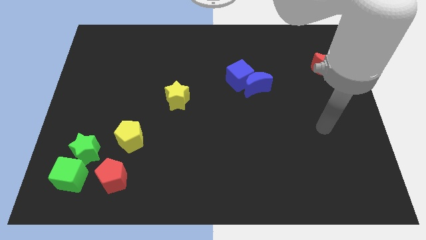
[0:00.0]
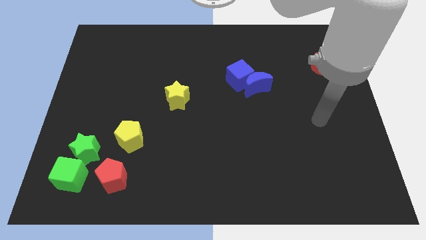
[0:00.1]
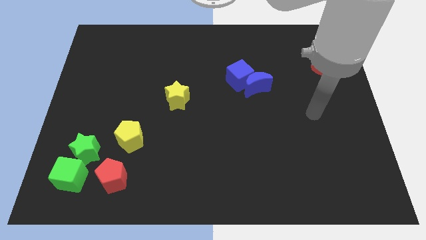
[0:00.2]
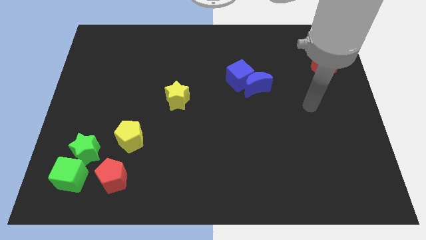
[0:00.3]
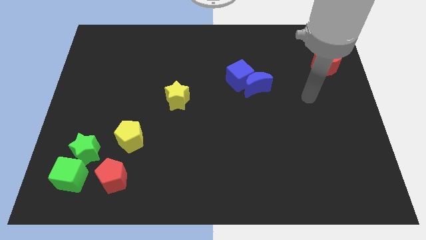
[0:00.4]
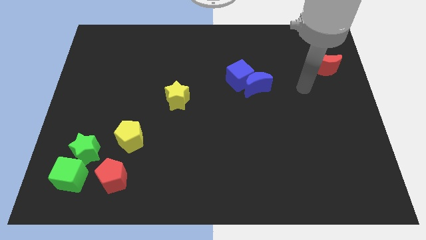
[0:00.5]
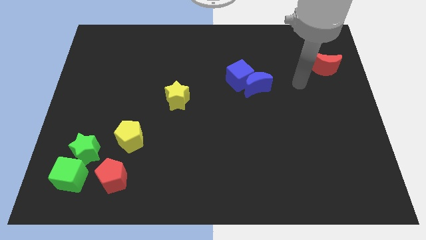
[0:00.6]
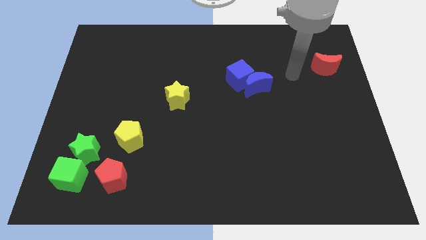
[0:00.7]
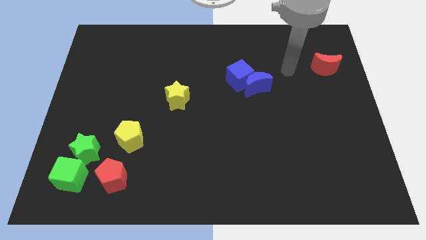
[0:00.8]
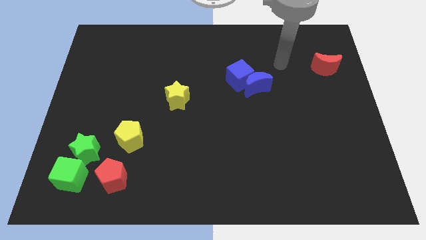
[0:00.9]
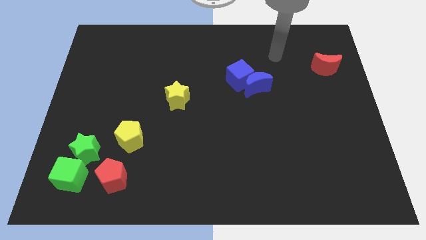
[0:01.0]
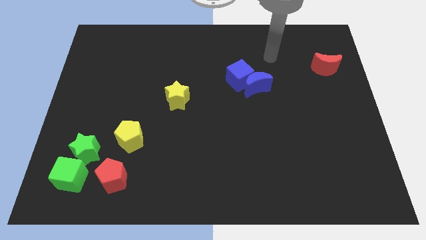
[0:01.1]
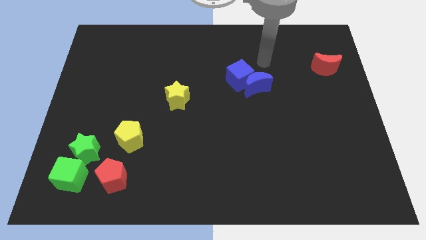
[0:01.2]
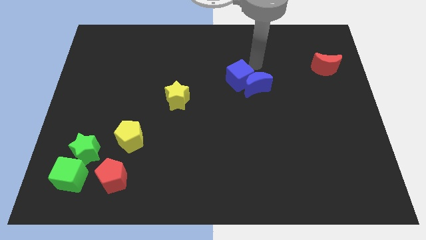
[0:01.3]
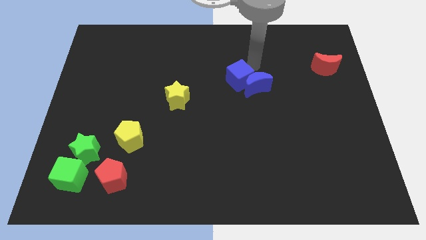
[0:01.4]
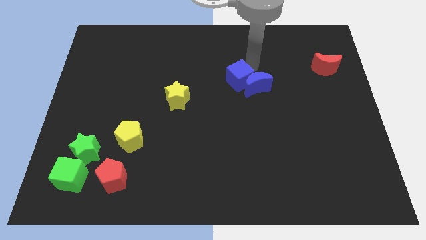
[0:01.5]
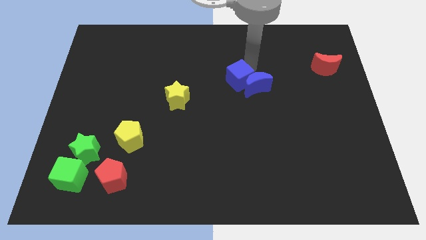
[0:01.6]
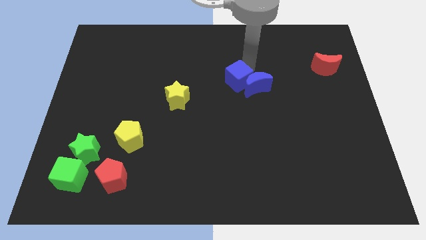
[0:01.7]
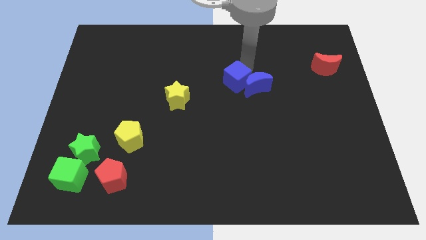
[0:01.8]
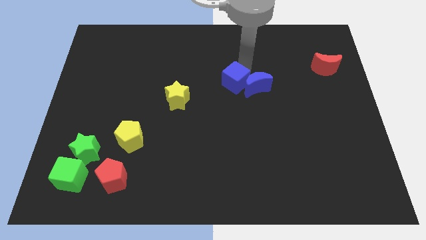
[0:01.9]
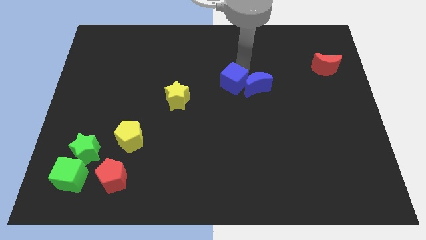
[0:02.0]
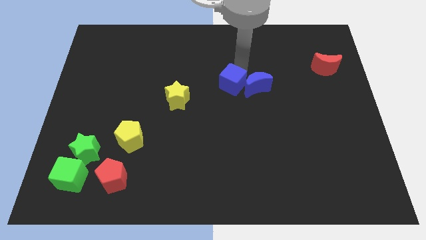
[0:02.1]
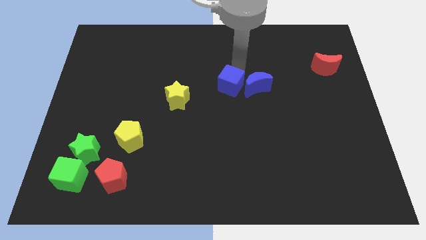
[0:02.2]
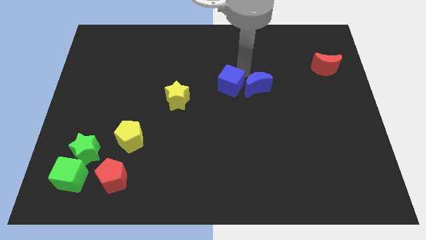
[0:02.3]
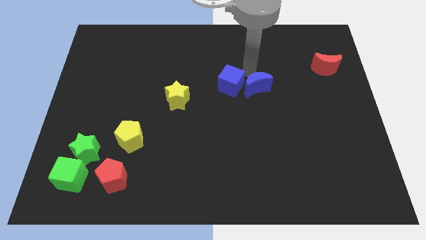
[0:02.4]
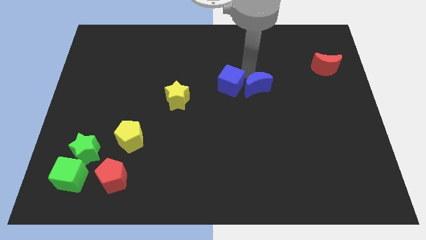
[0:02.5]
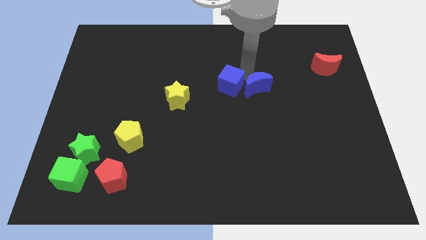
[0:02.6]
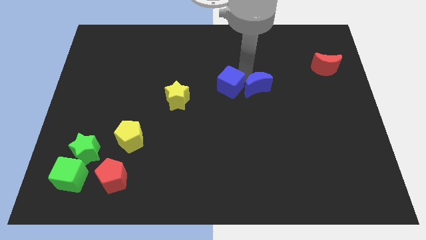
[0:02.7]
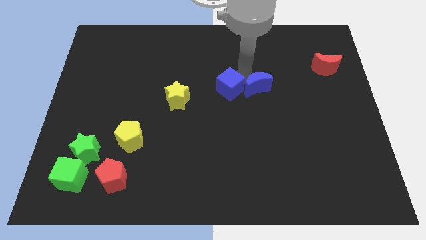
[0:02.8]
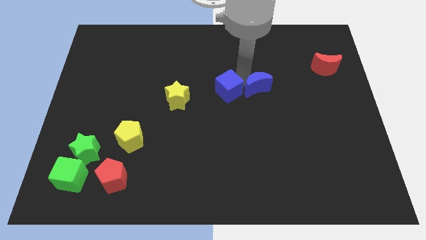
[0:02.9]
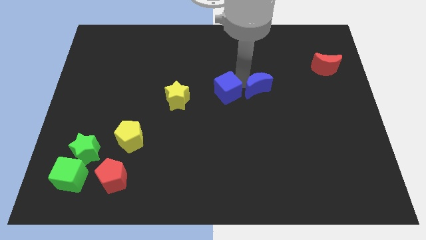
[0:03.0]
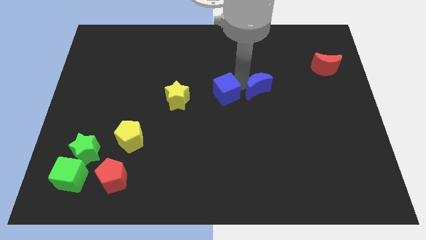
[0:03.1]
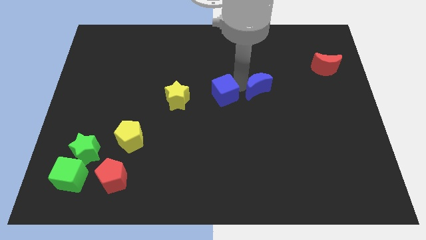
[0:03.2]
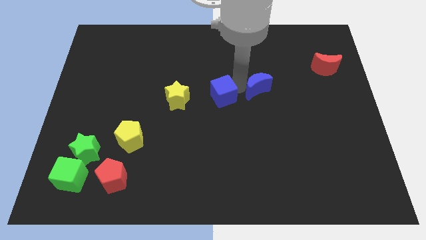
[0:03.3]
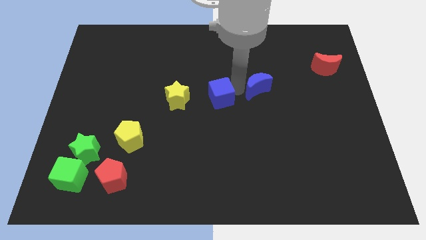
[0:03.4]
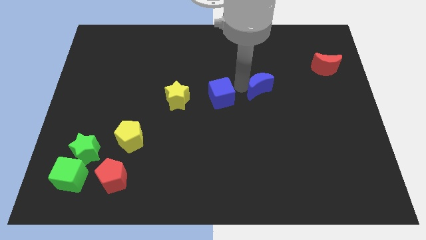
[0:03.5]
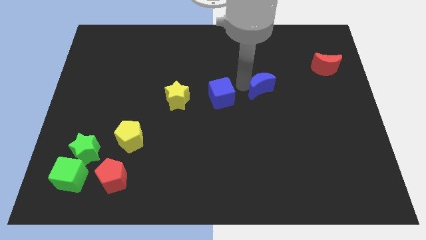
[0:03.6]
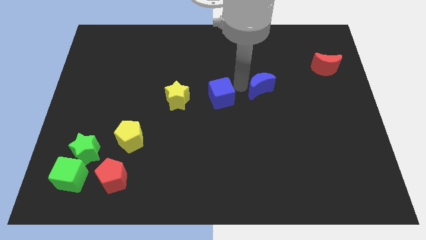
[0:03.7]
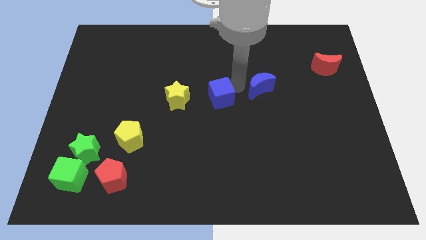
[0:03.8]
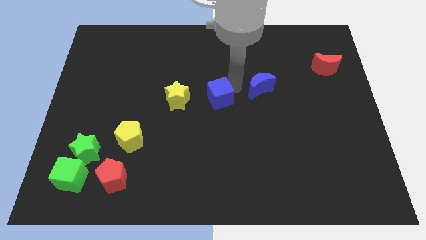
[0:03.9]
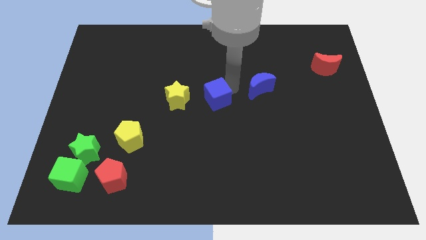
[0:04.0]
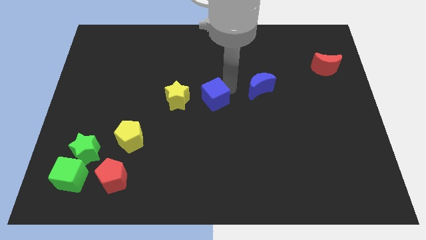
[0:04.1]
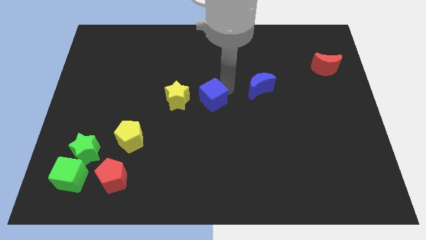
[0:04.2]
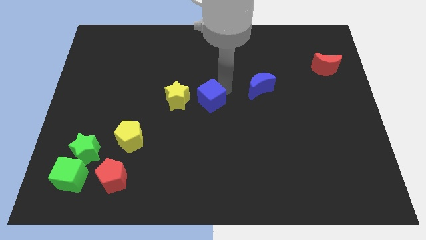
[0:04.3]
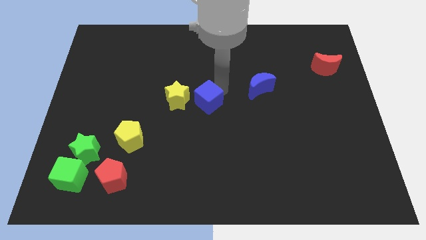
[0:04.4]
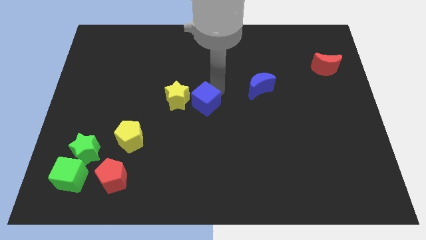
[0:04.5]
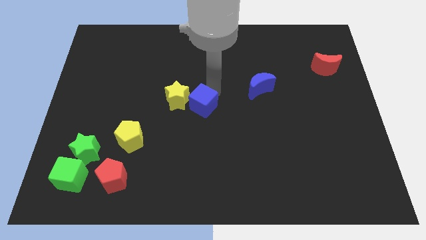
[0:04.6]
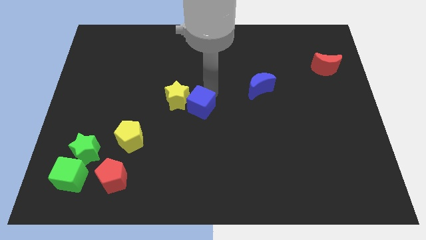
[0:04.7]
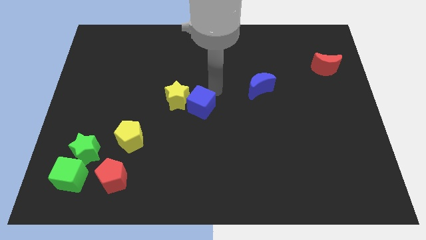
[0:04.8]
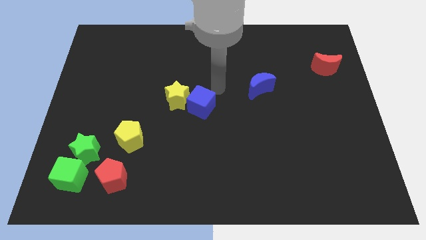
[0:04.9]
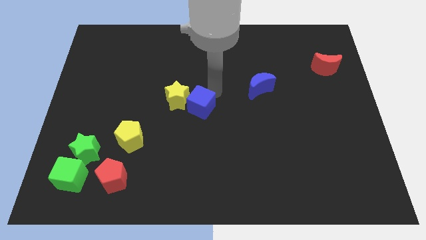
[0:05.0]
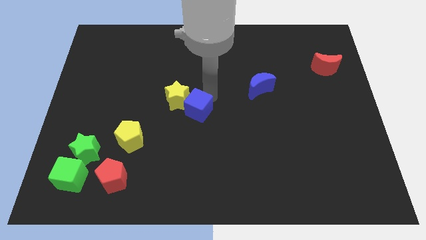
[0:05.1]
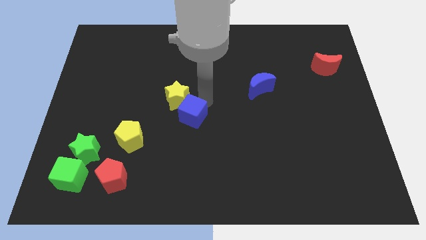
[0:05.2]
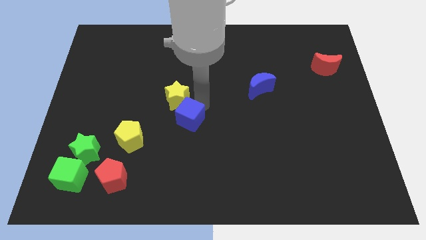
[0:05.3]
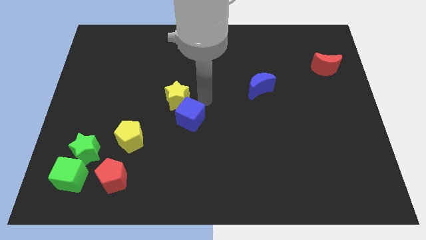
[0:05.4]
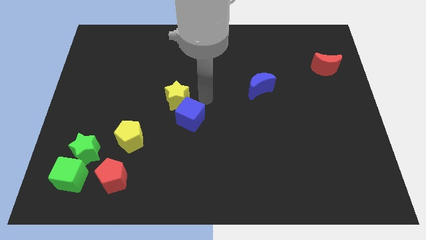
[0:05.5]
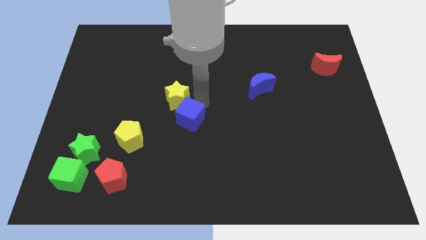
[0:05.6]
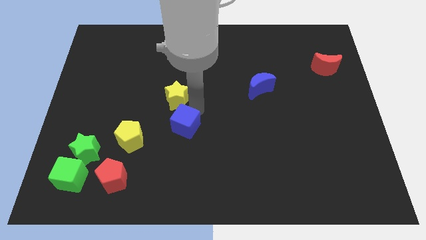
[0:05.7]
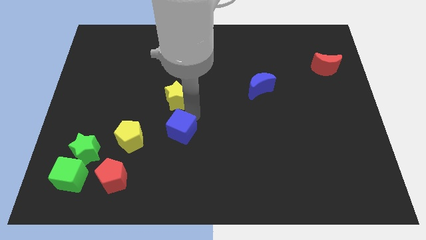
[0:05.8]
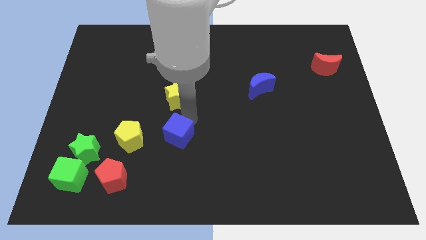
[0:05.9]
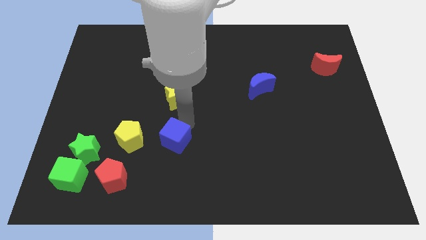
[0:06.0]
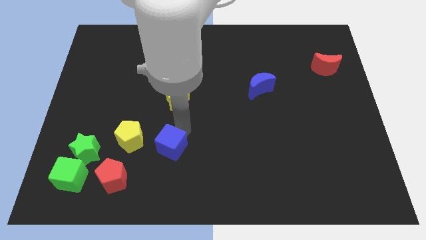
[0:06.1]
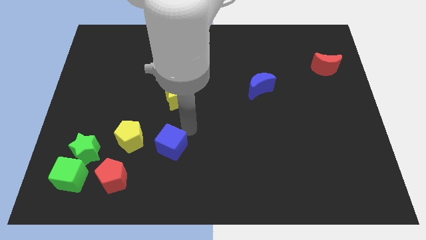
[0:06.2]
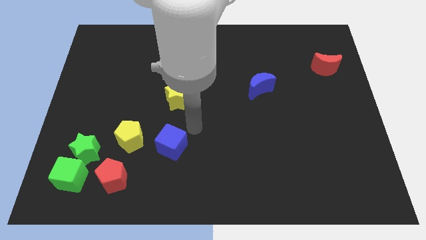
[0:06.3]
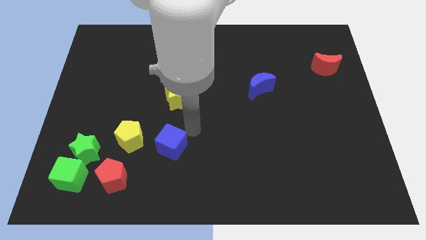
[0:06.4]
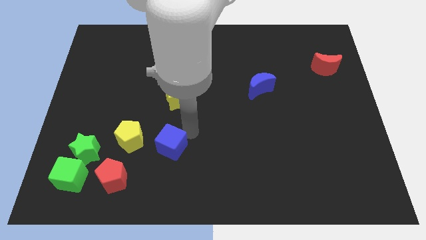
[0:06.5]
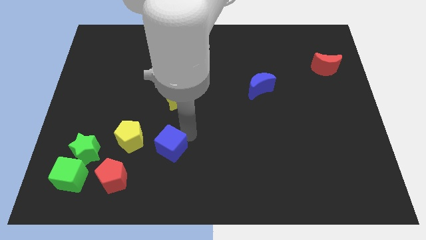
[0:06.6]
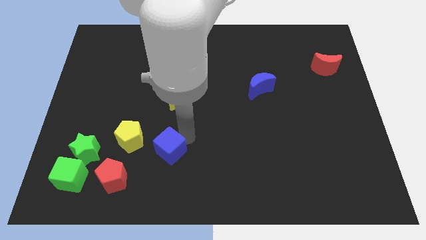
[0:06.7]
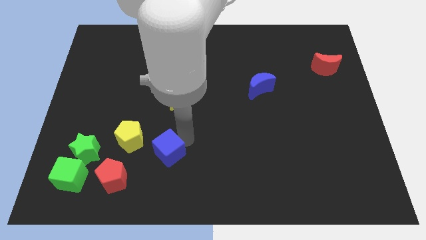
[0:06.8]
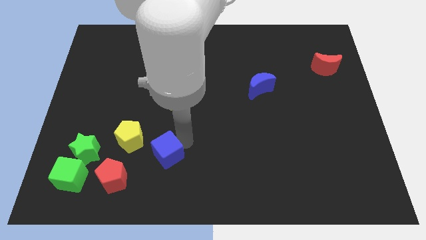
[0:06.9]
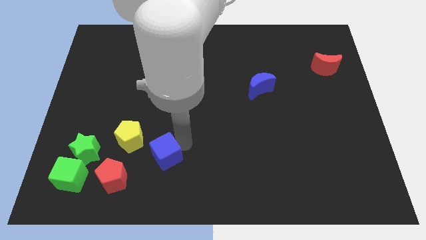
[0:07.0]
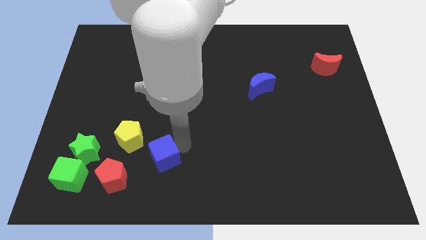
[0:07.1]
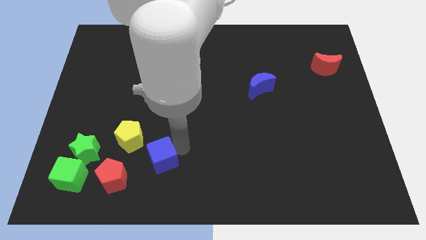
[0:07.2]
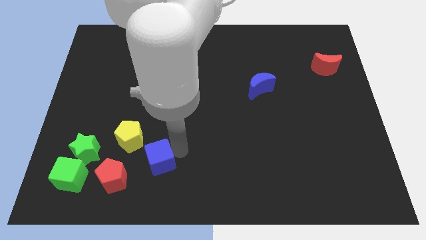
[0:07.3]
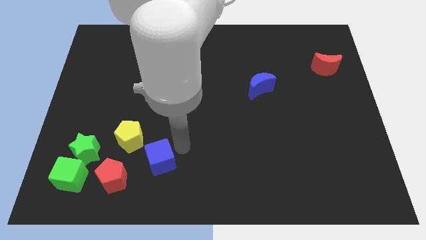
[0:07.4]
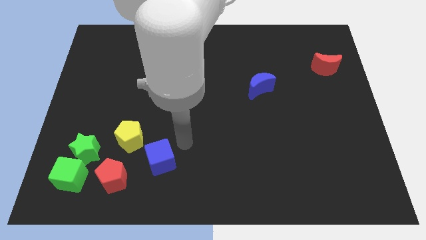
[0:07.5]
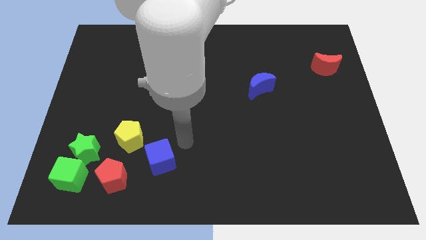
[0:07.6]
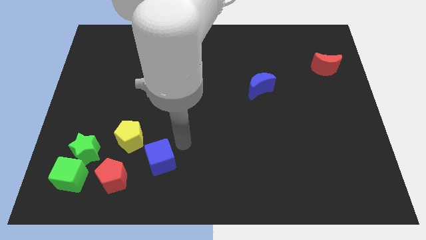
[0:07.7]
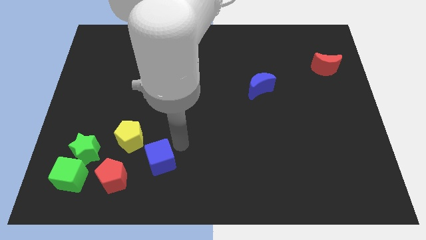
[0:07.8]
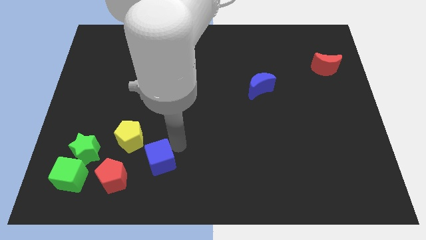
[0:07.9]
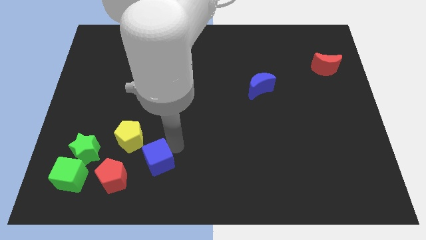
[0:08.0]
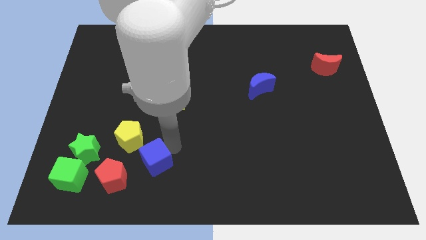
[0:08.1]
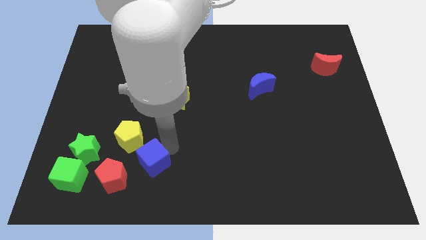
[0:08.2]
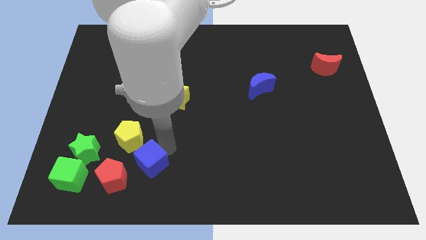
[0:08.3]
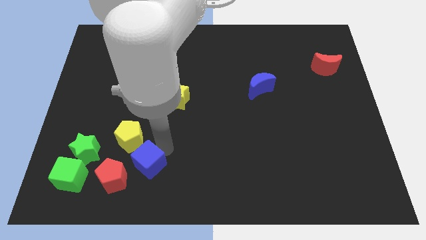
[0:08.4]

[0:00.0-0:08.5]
put the blue cube to the bottom side of the yellow pentagon
